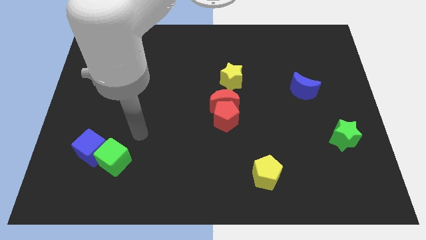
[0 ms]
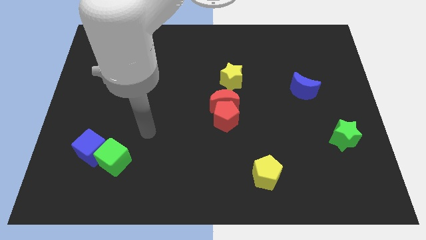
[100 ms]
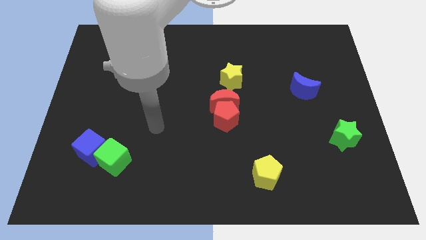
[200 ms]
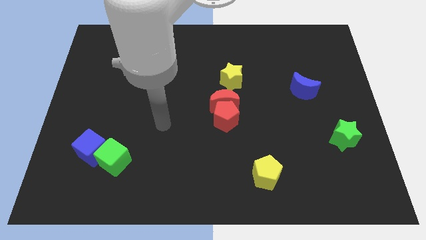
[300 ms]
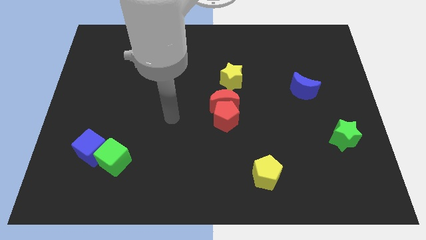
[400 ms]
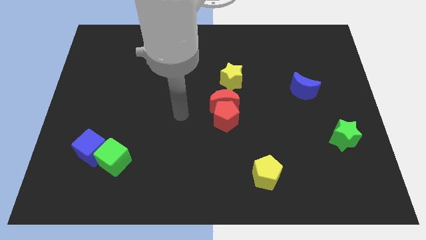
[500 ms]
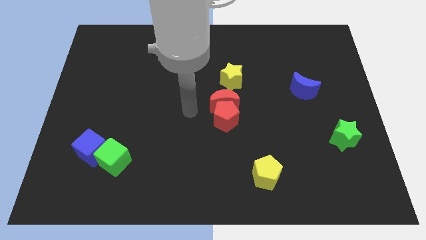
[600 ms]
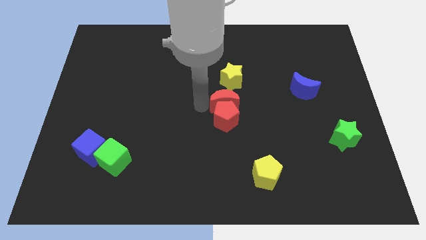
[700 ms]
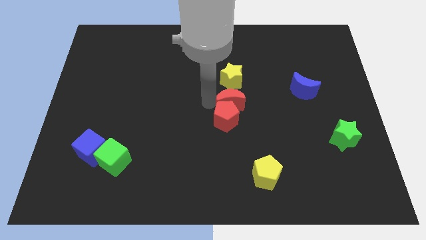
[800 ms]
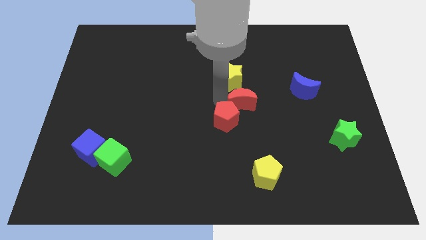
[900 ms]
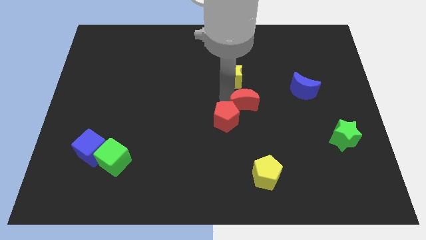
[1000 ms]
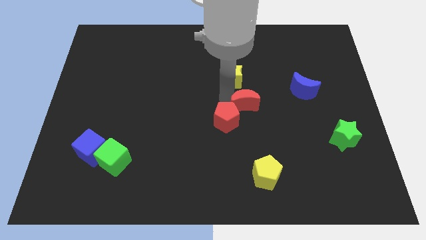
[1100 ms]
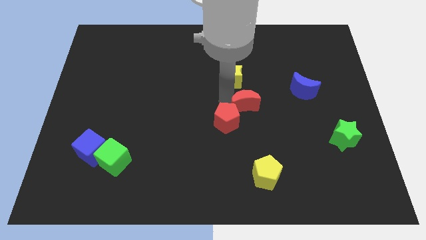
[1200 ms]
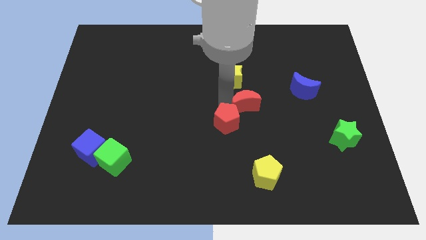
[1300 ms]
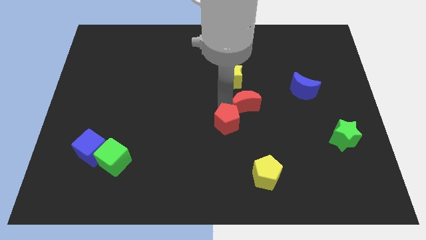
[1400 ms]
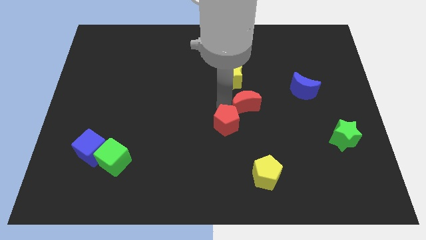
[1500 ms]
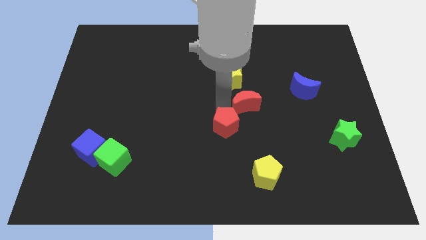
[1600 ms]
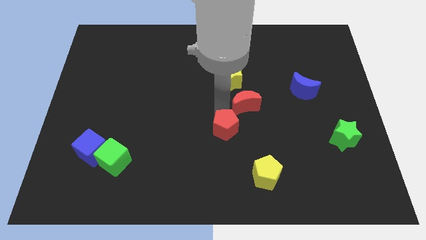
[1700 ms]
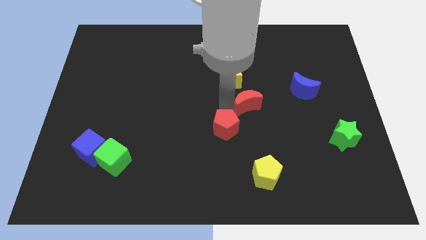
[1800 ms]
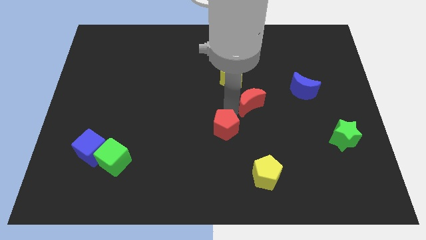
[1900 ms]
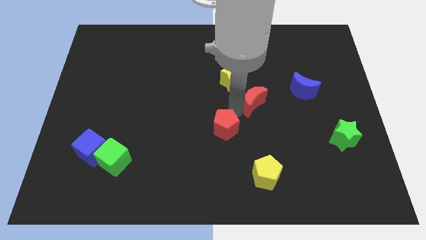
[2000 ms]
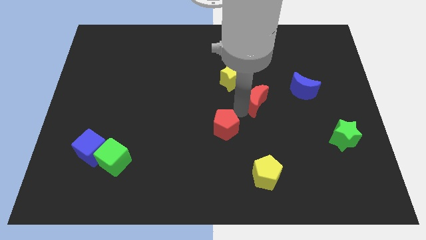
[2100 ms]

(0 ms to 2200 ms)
move the red pentagon away from the red moon

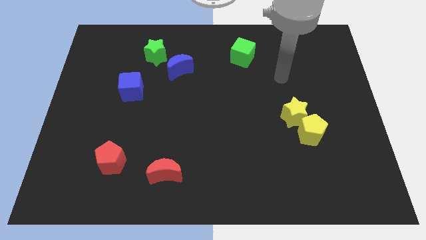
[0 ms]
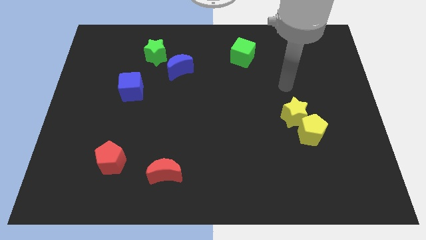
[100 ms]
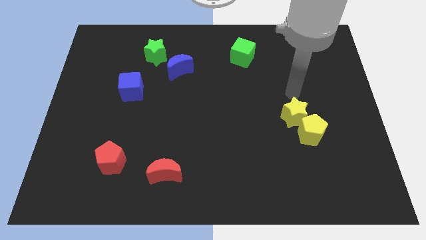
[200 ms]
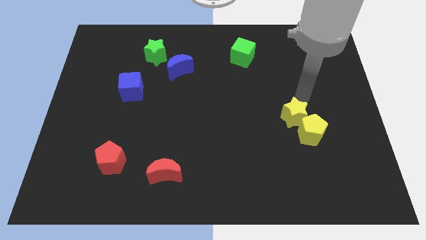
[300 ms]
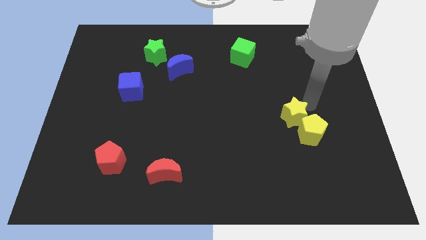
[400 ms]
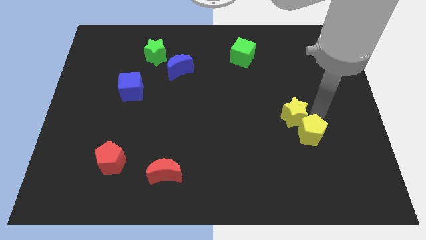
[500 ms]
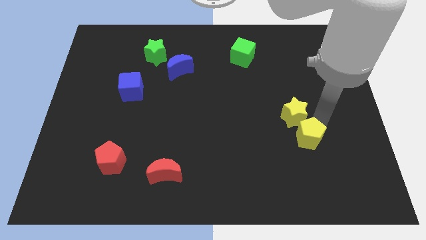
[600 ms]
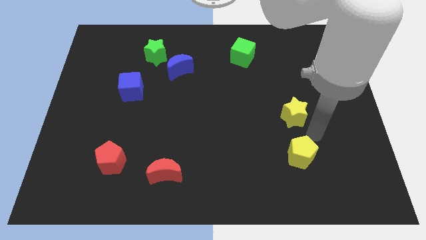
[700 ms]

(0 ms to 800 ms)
separate the yellow star from the yellow pentagon

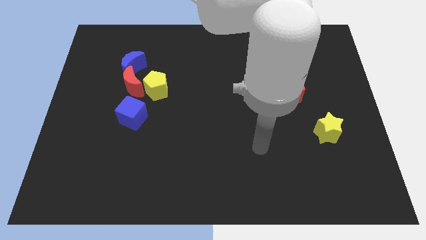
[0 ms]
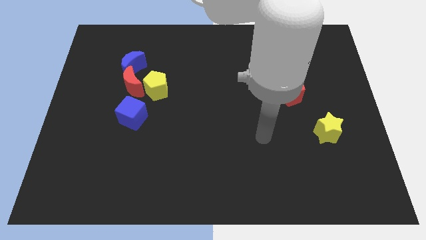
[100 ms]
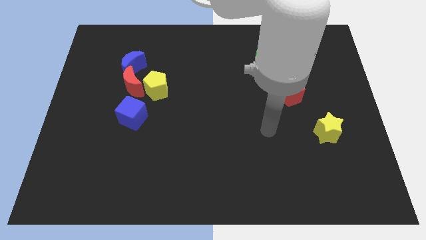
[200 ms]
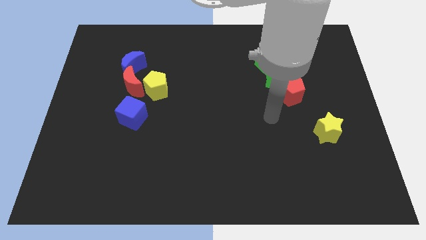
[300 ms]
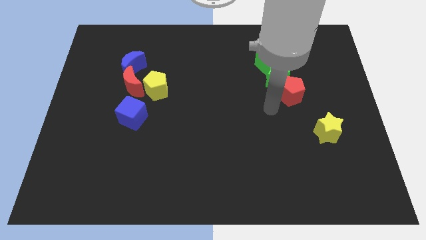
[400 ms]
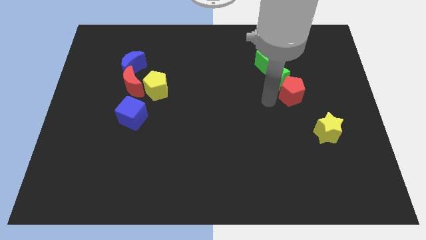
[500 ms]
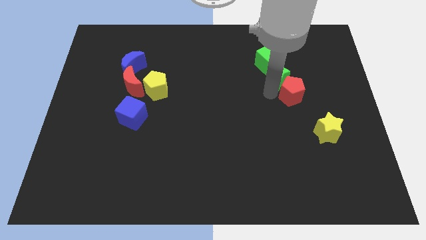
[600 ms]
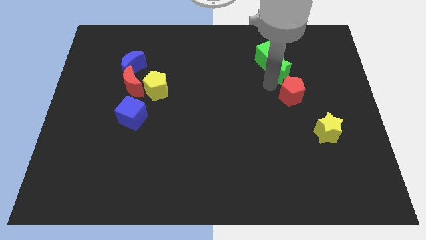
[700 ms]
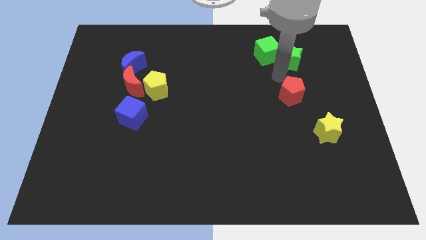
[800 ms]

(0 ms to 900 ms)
pull the red pentagon apart from the green star

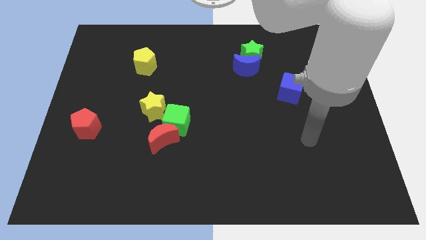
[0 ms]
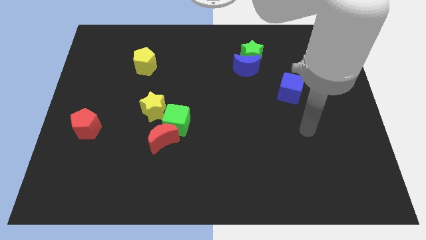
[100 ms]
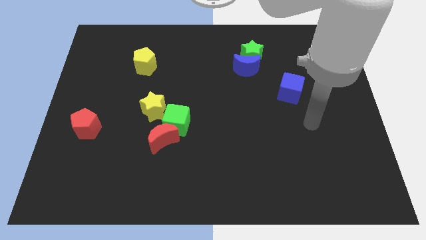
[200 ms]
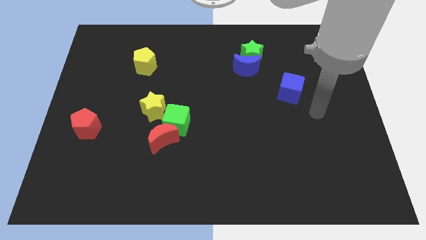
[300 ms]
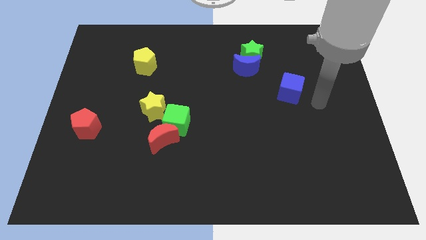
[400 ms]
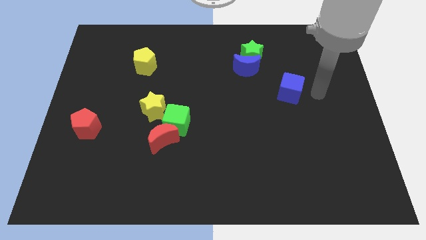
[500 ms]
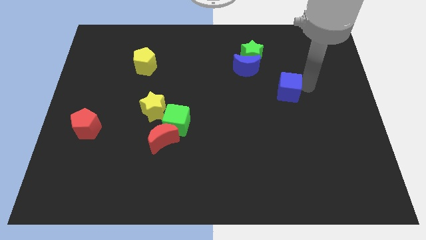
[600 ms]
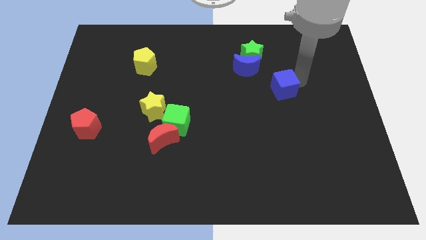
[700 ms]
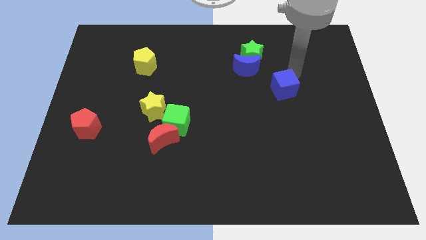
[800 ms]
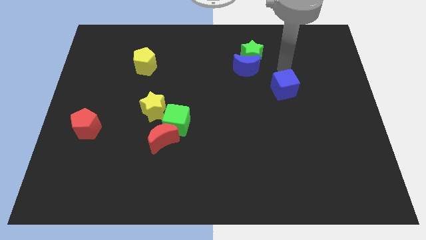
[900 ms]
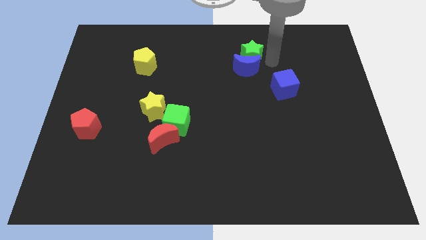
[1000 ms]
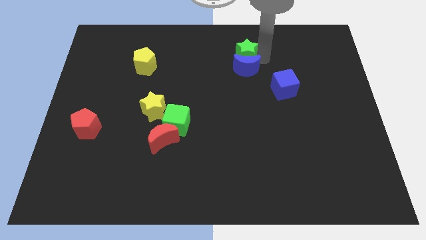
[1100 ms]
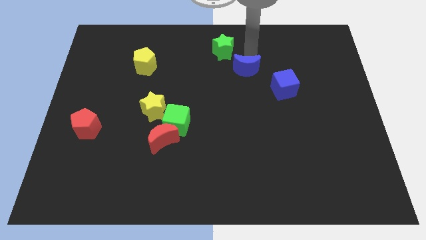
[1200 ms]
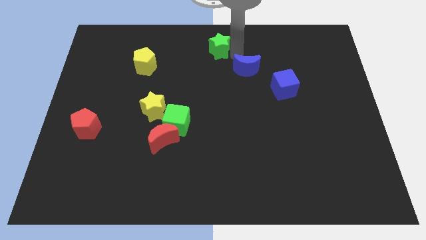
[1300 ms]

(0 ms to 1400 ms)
pull the blue moon apart from the green star

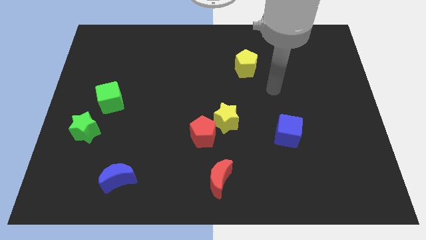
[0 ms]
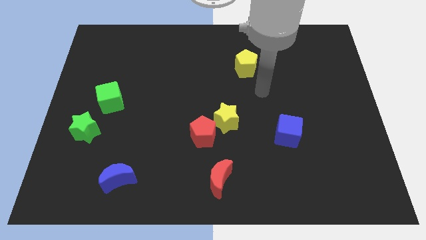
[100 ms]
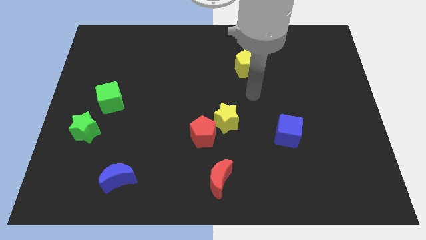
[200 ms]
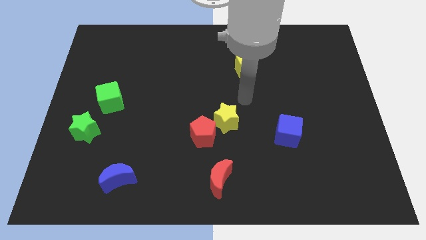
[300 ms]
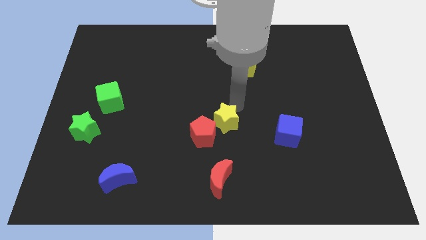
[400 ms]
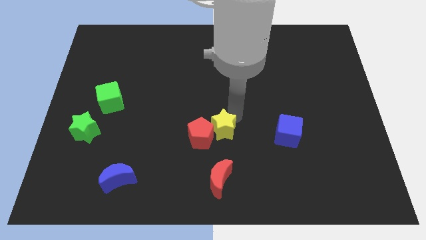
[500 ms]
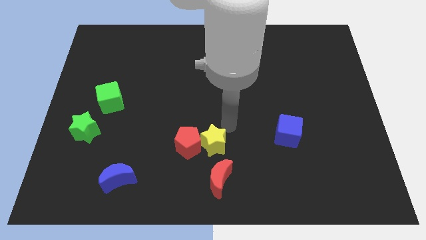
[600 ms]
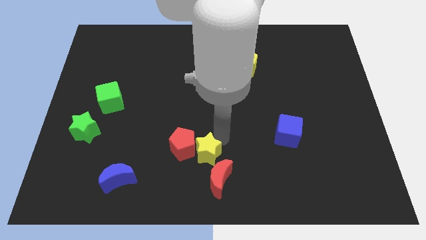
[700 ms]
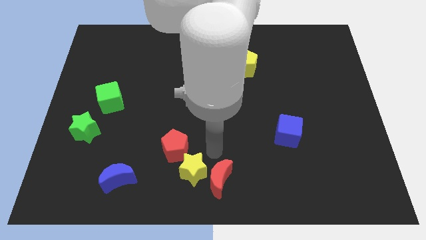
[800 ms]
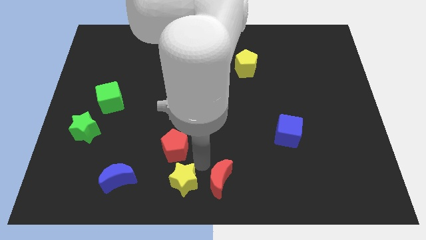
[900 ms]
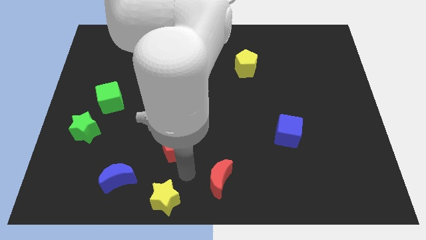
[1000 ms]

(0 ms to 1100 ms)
separate the red pentagon from the yellow star

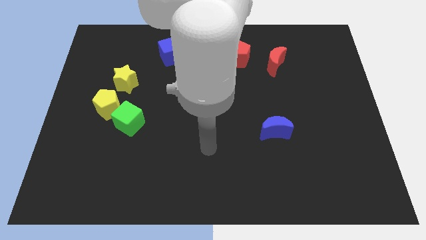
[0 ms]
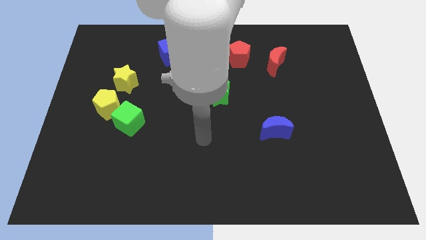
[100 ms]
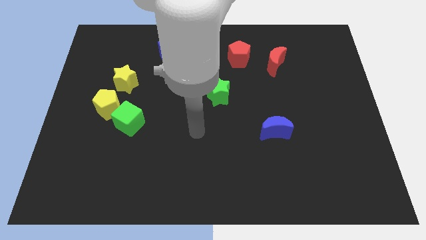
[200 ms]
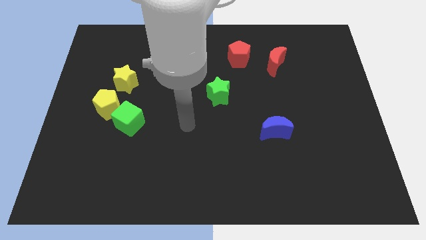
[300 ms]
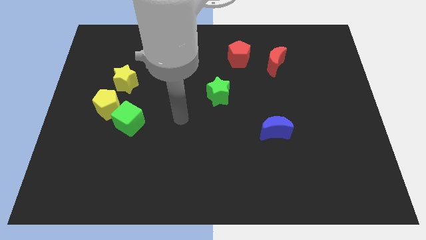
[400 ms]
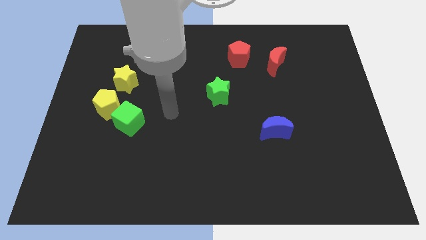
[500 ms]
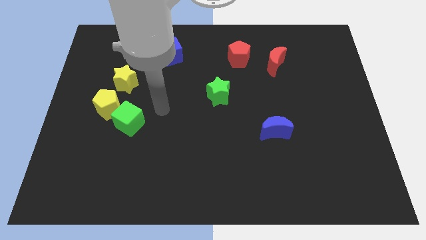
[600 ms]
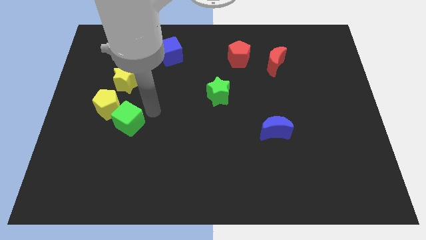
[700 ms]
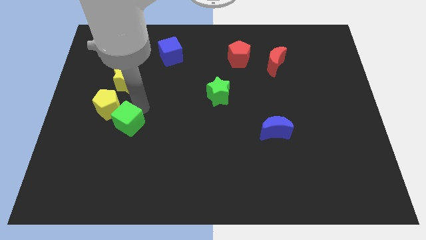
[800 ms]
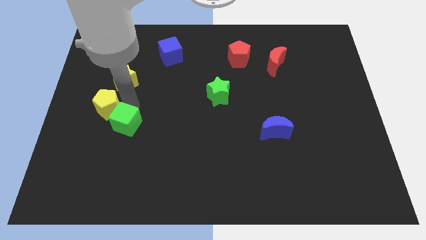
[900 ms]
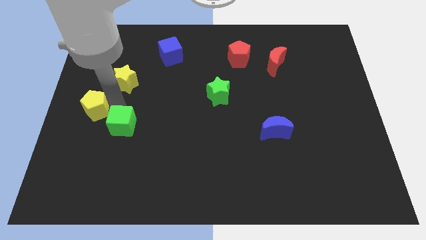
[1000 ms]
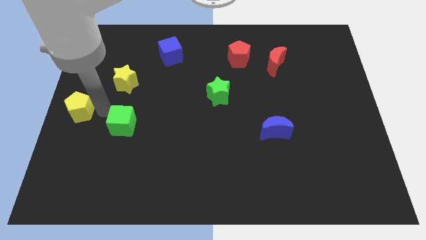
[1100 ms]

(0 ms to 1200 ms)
pull the green cube apart from the yellow pentagon

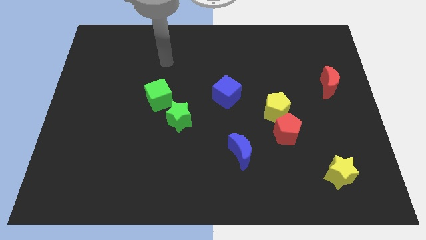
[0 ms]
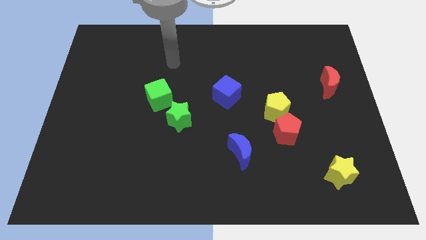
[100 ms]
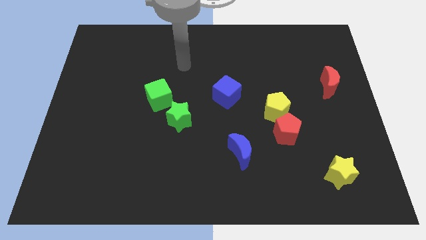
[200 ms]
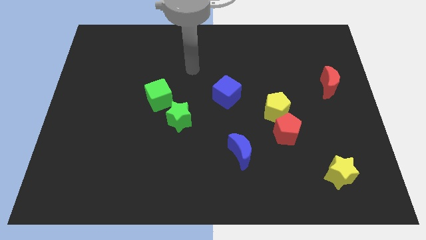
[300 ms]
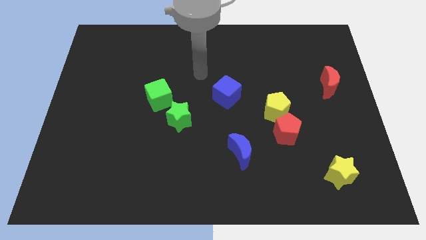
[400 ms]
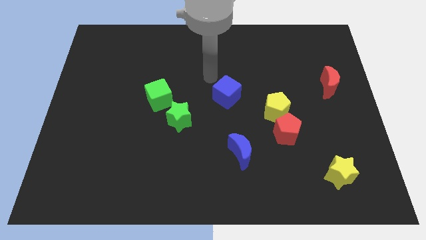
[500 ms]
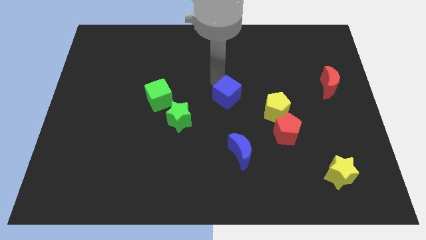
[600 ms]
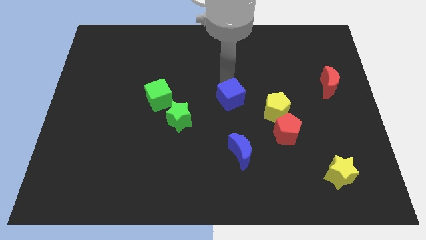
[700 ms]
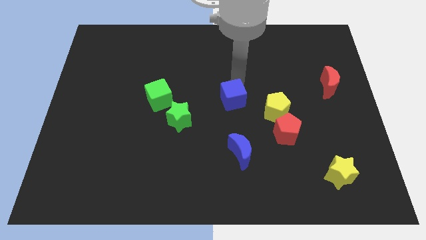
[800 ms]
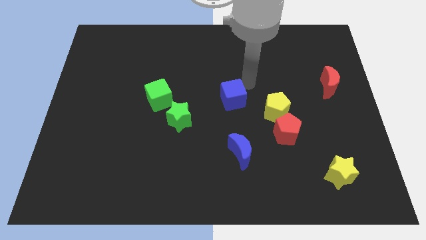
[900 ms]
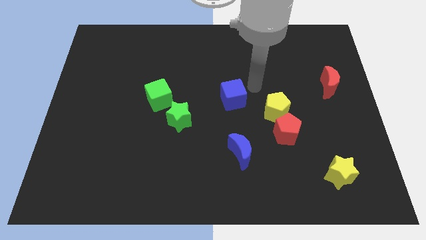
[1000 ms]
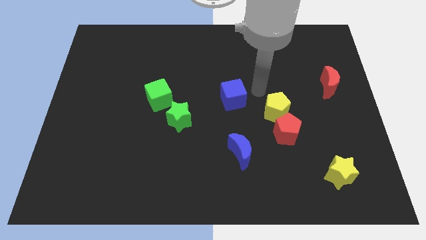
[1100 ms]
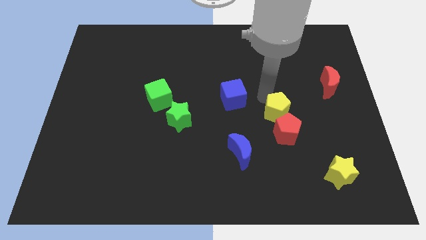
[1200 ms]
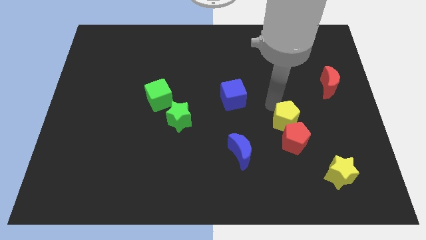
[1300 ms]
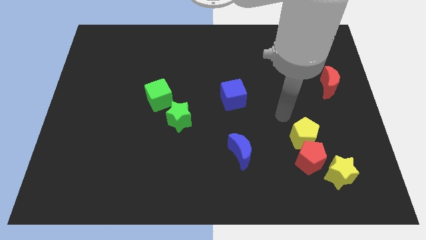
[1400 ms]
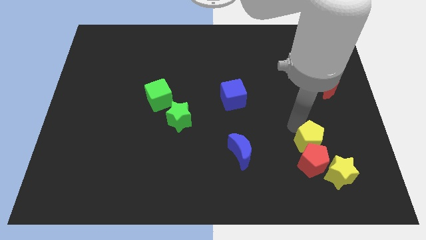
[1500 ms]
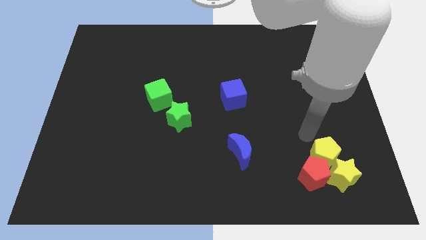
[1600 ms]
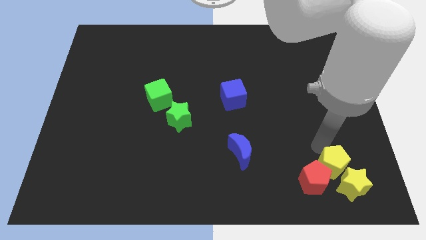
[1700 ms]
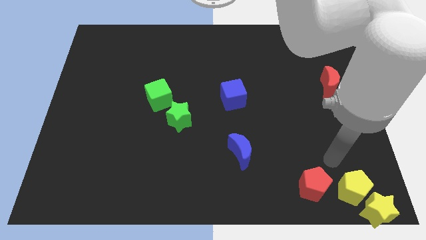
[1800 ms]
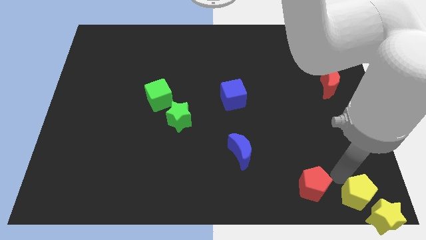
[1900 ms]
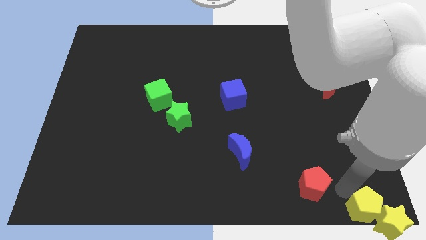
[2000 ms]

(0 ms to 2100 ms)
pull the red pentagon apart from the yellow pentagon
